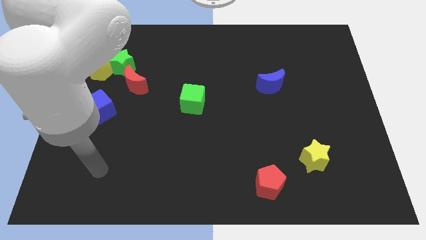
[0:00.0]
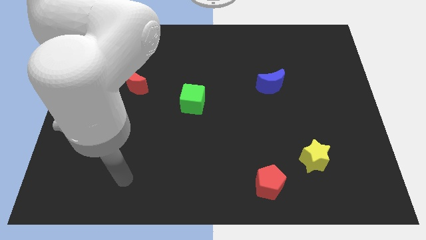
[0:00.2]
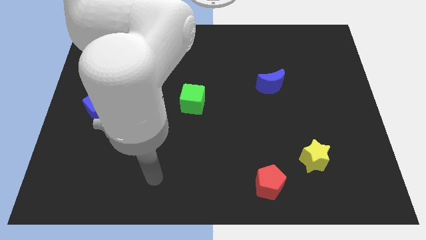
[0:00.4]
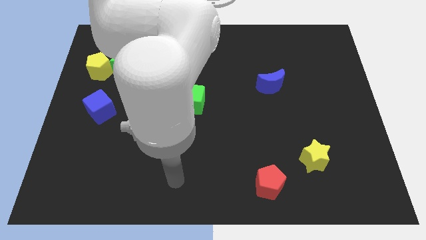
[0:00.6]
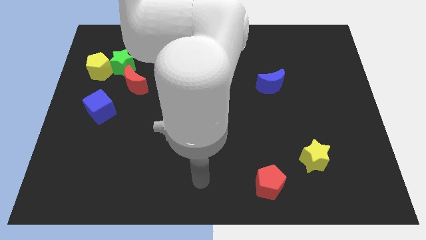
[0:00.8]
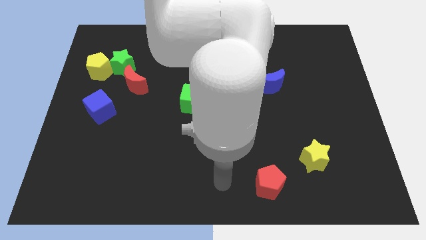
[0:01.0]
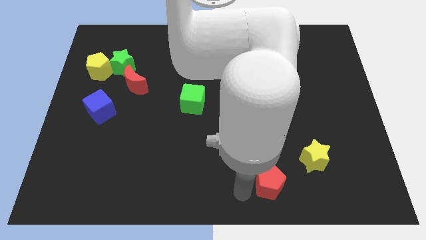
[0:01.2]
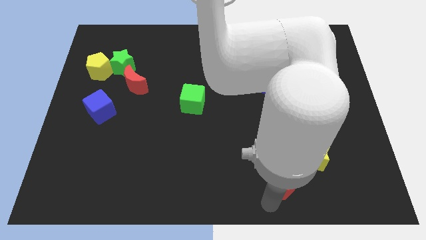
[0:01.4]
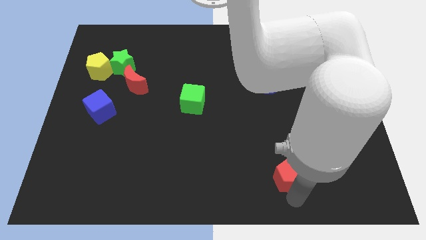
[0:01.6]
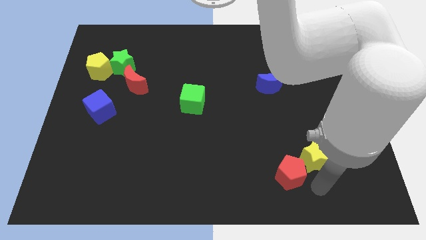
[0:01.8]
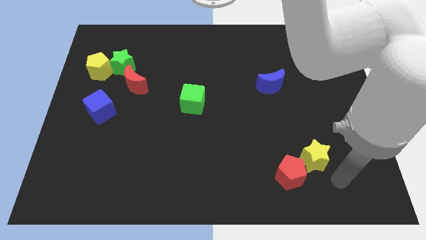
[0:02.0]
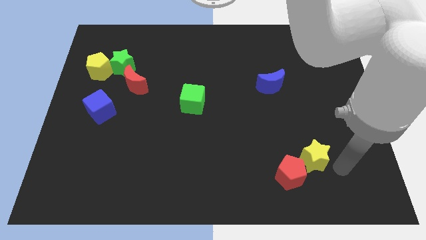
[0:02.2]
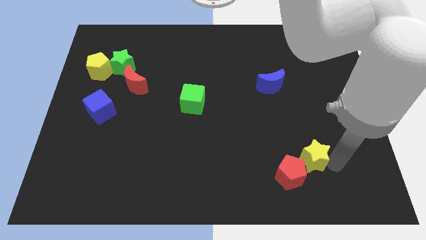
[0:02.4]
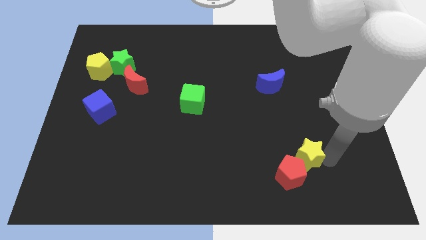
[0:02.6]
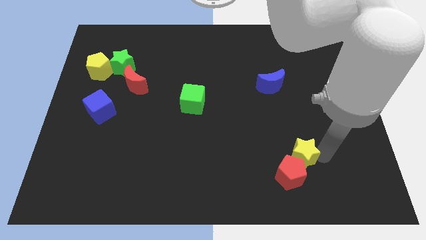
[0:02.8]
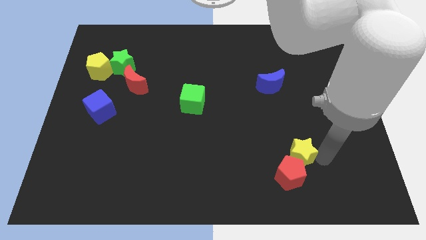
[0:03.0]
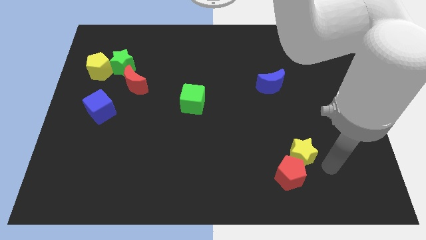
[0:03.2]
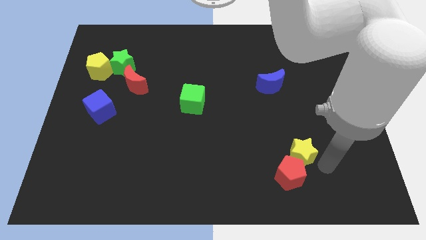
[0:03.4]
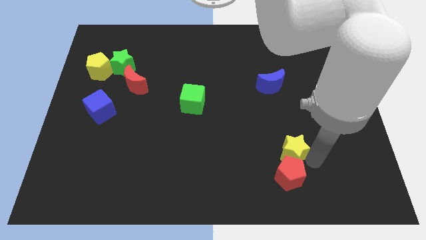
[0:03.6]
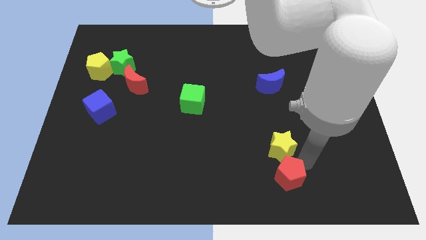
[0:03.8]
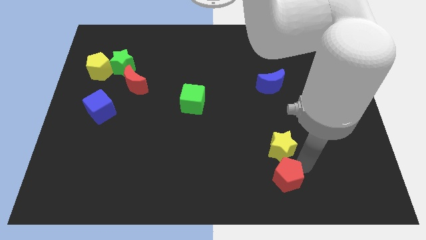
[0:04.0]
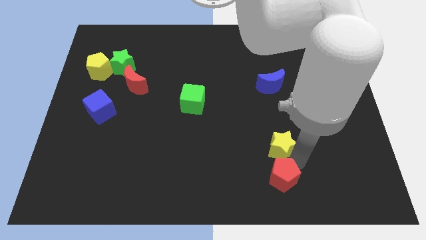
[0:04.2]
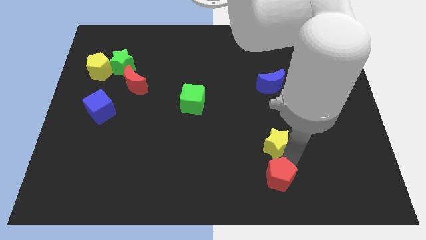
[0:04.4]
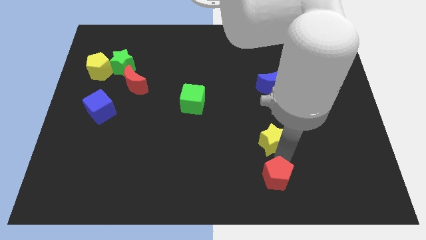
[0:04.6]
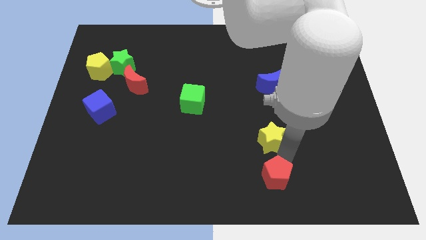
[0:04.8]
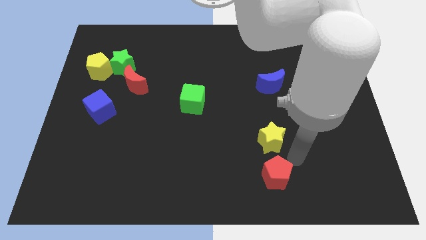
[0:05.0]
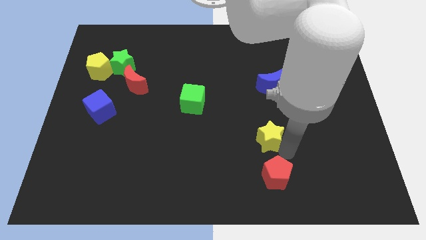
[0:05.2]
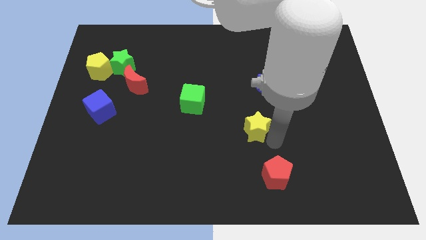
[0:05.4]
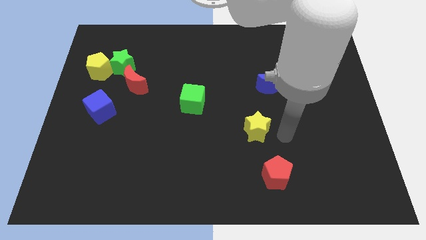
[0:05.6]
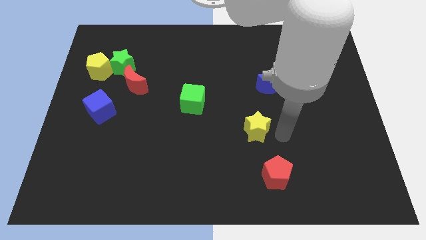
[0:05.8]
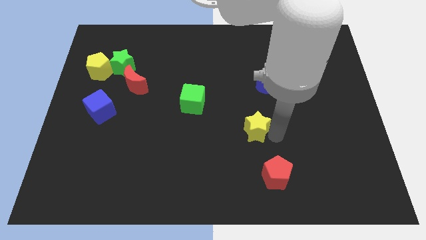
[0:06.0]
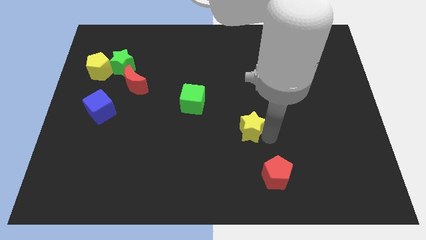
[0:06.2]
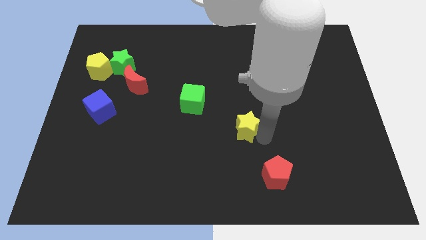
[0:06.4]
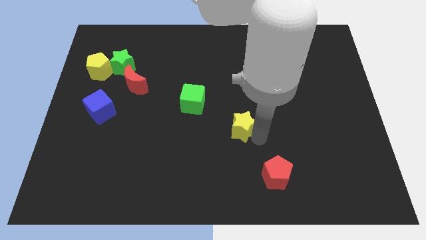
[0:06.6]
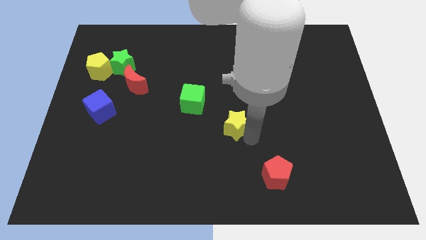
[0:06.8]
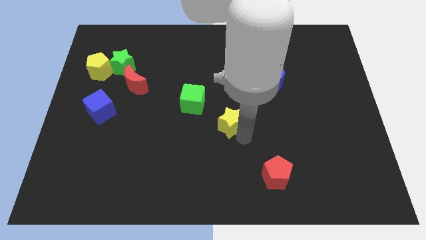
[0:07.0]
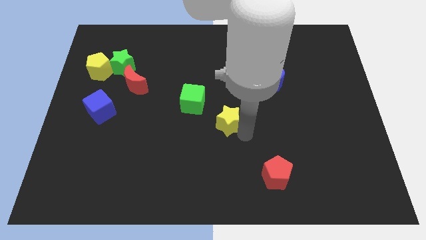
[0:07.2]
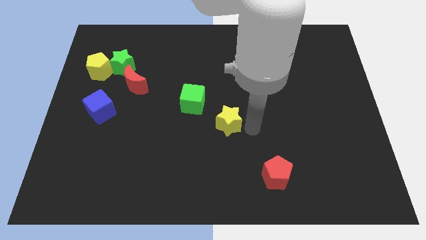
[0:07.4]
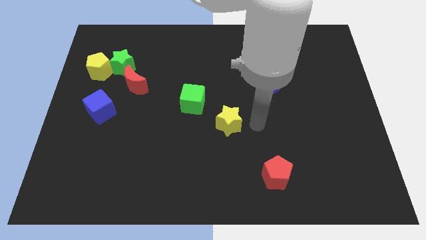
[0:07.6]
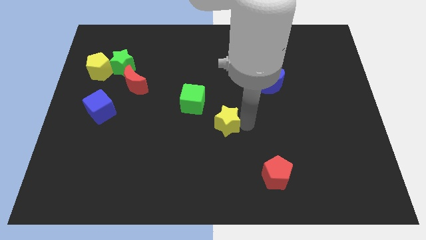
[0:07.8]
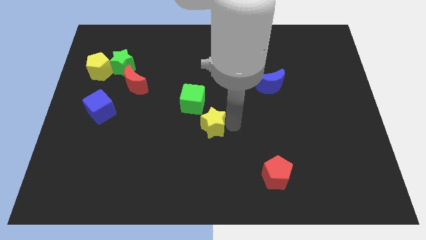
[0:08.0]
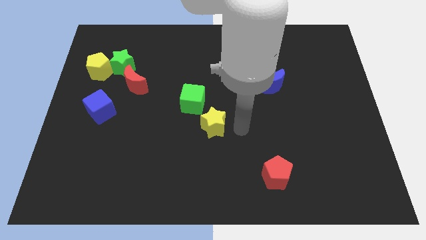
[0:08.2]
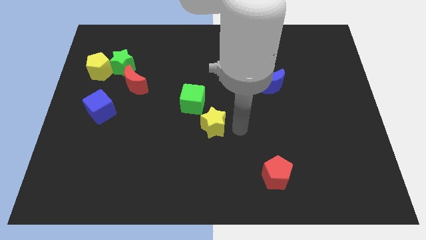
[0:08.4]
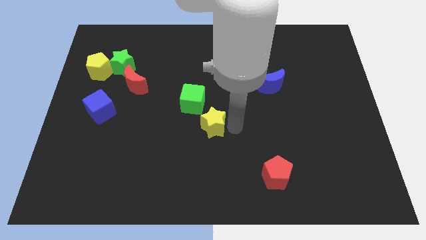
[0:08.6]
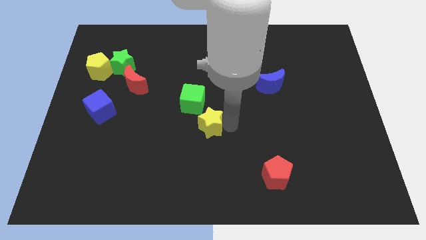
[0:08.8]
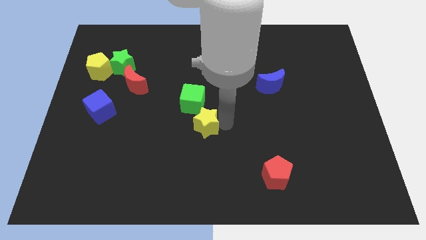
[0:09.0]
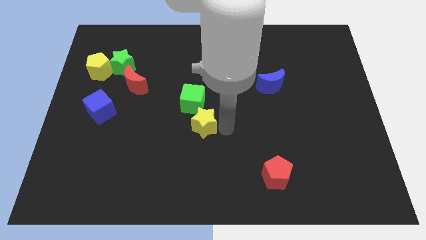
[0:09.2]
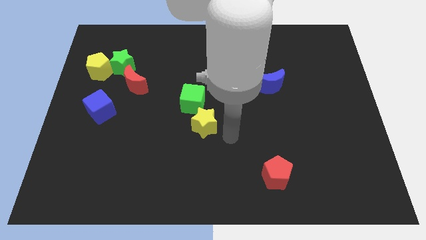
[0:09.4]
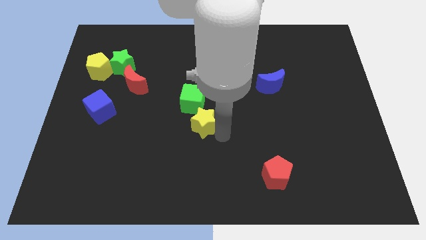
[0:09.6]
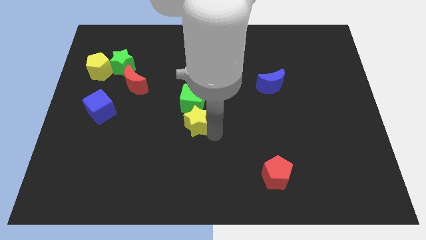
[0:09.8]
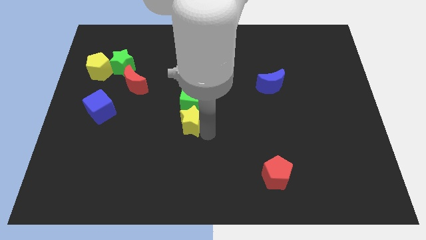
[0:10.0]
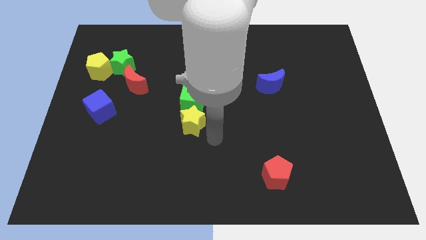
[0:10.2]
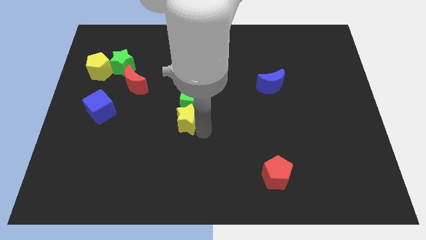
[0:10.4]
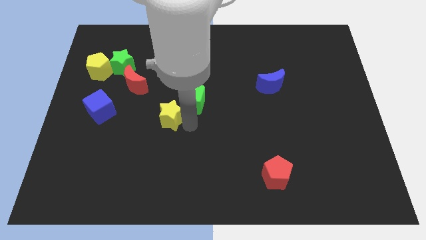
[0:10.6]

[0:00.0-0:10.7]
put the yellow star just left of the green cube

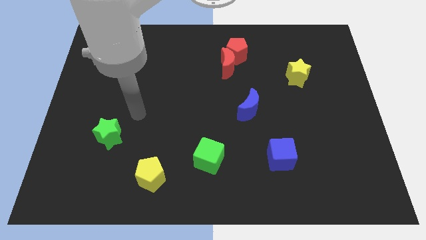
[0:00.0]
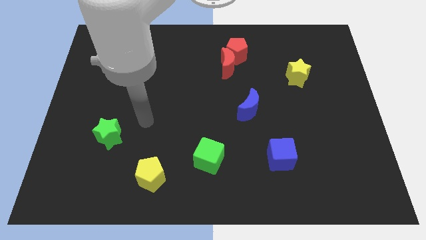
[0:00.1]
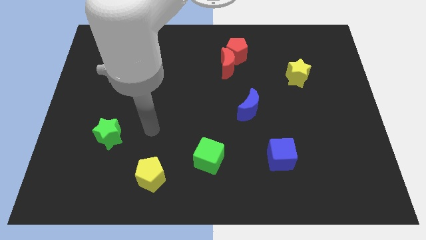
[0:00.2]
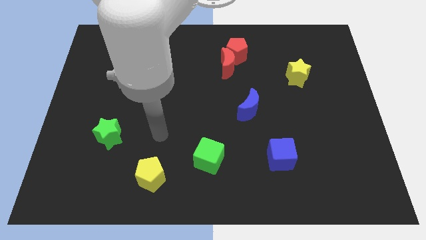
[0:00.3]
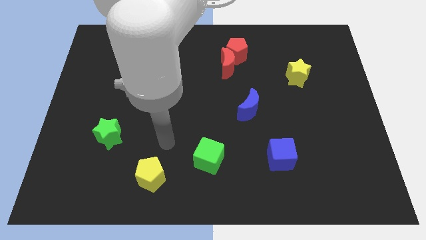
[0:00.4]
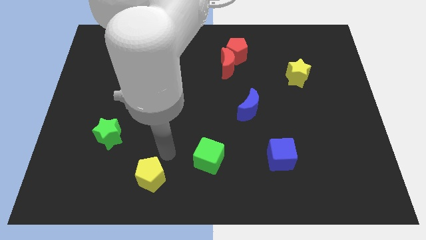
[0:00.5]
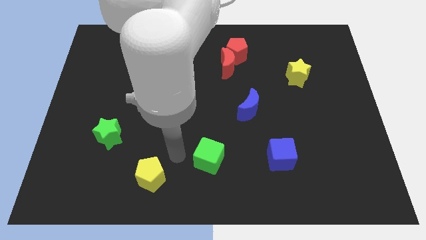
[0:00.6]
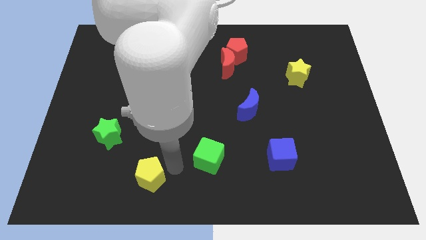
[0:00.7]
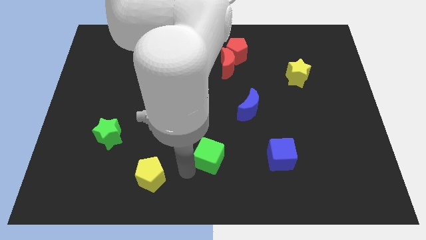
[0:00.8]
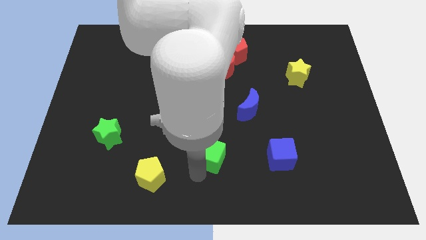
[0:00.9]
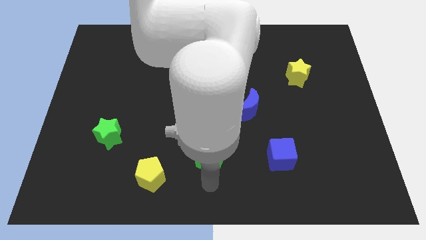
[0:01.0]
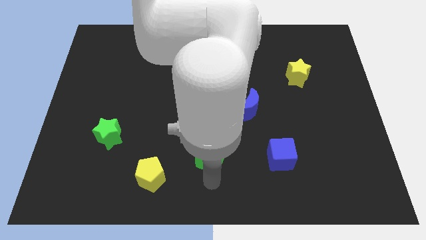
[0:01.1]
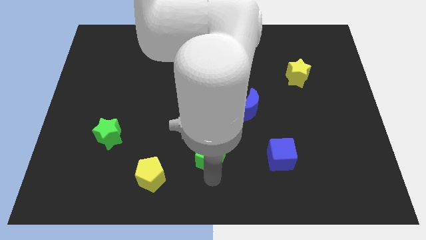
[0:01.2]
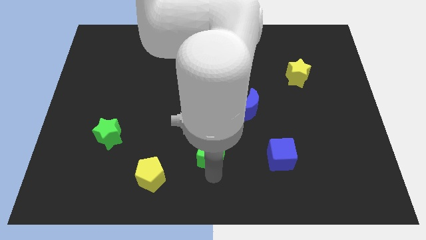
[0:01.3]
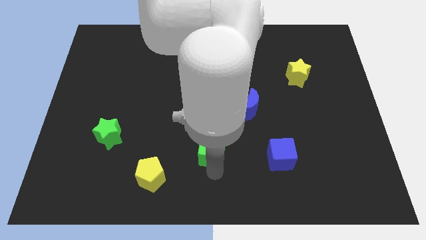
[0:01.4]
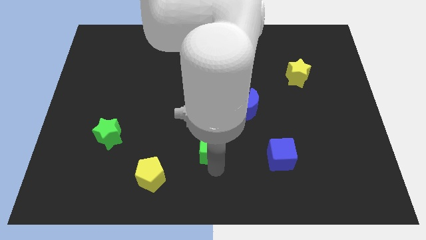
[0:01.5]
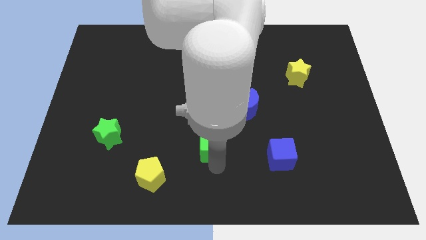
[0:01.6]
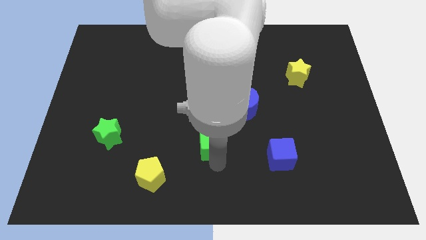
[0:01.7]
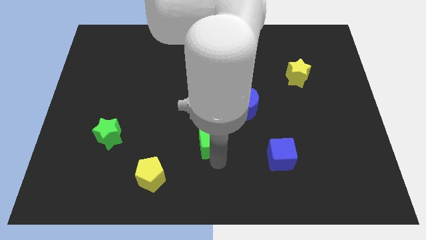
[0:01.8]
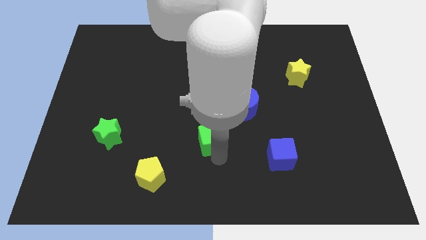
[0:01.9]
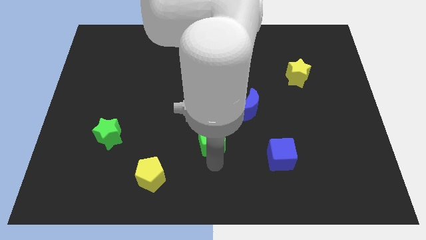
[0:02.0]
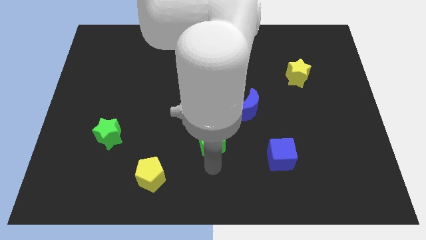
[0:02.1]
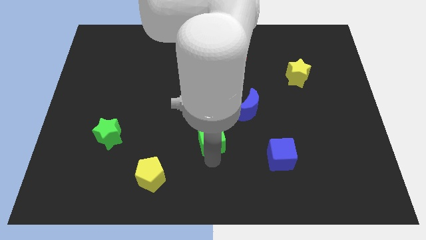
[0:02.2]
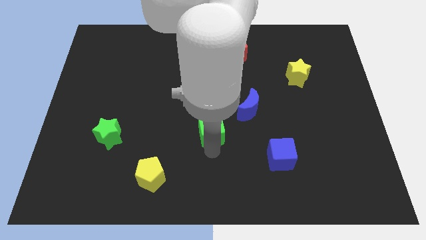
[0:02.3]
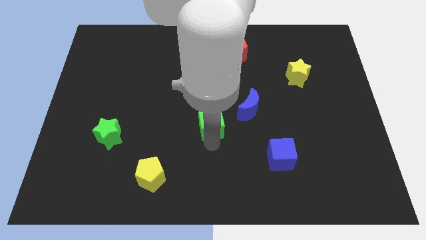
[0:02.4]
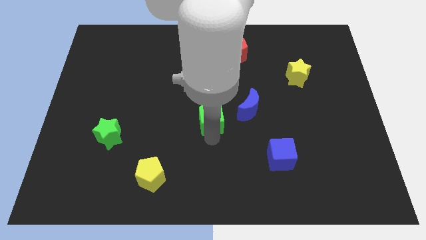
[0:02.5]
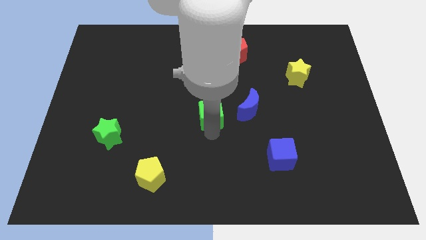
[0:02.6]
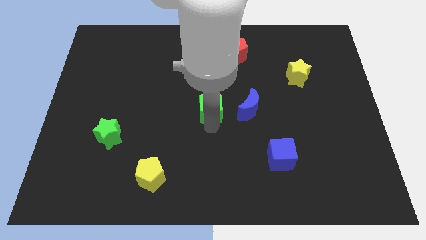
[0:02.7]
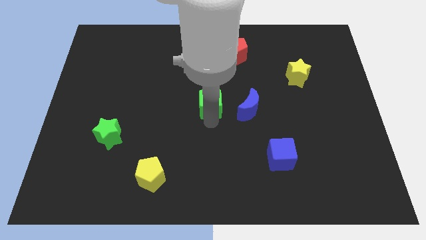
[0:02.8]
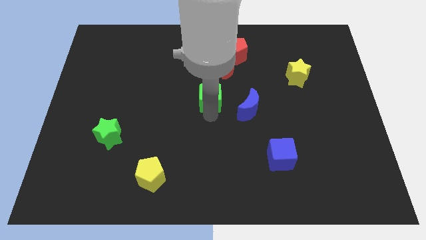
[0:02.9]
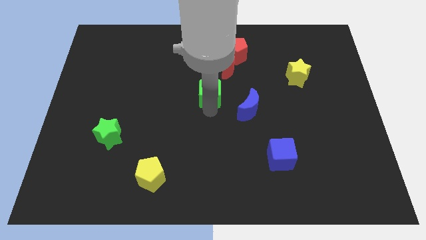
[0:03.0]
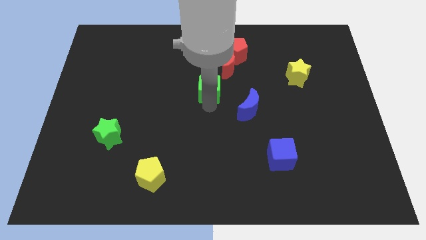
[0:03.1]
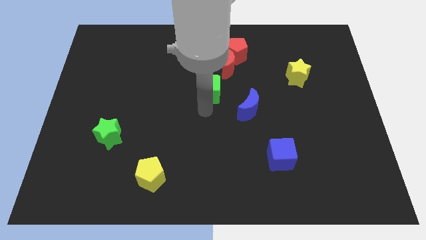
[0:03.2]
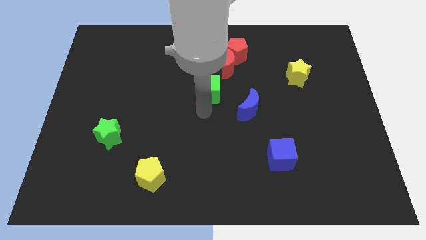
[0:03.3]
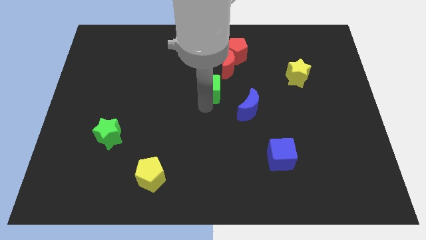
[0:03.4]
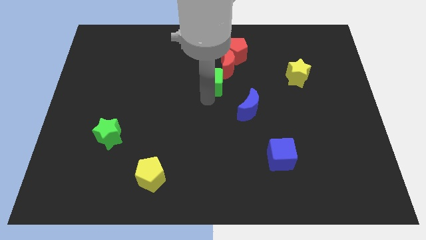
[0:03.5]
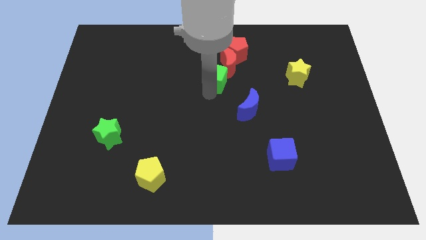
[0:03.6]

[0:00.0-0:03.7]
slide the green cube diagonally down and to the left of the red pentagon
